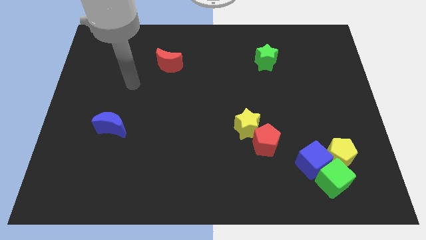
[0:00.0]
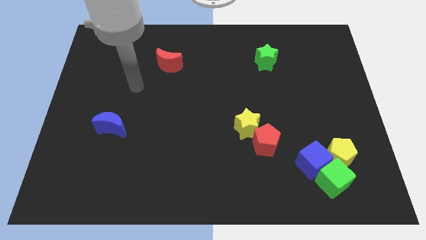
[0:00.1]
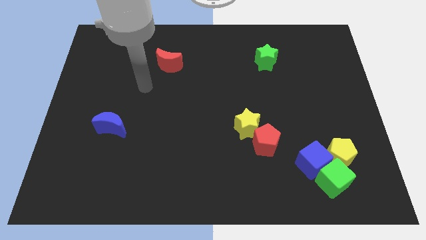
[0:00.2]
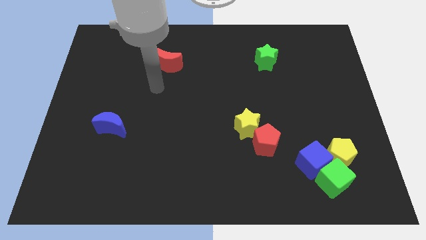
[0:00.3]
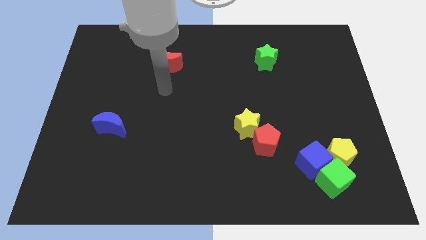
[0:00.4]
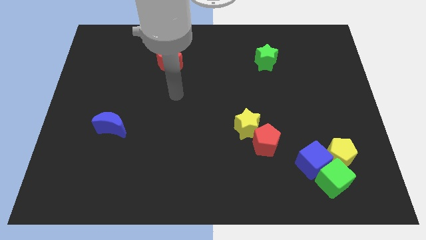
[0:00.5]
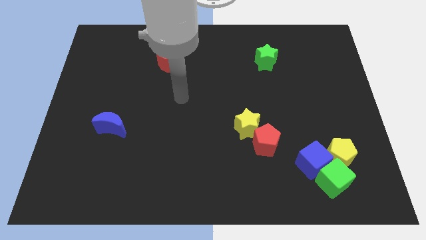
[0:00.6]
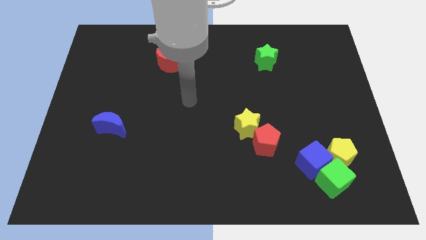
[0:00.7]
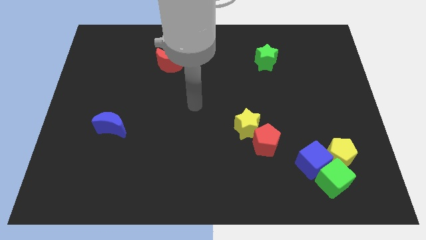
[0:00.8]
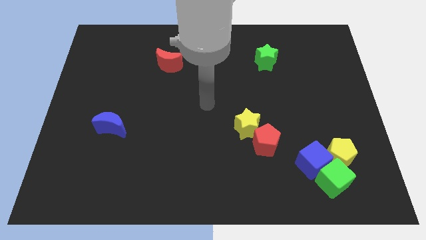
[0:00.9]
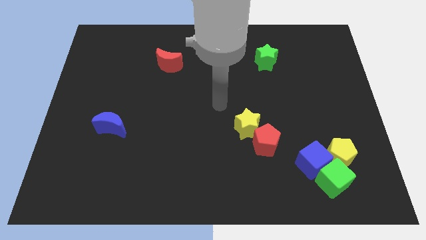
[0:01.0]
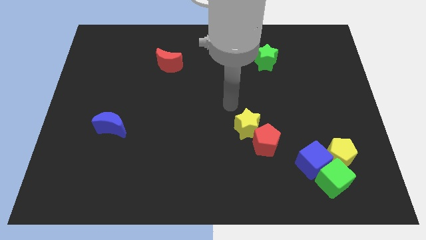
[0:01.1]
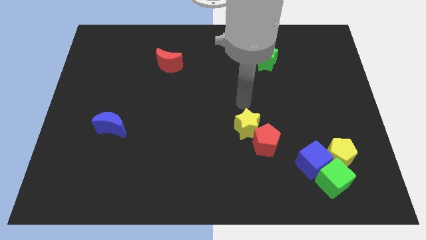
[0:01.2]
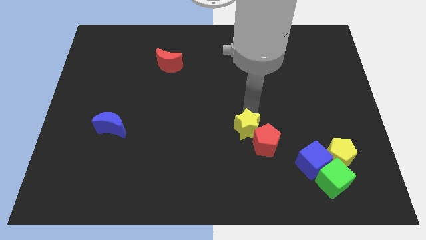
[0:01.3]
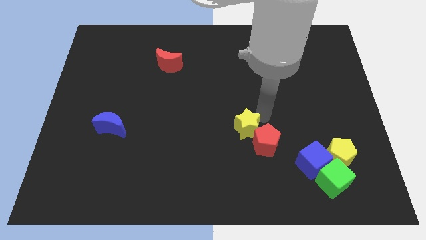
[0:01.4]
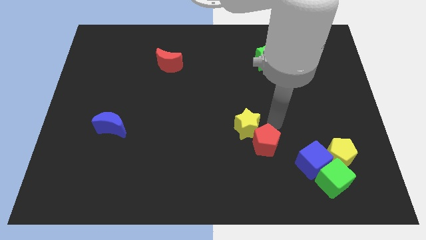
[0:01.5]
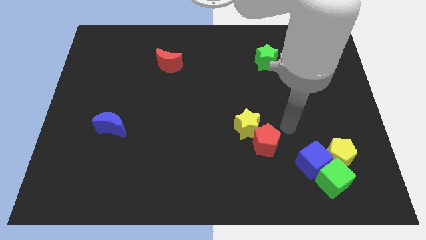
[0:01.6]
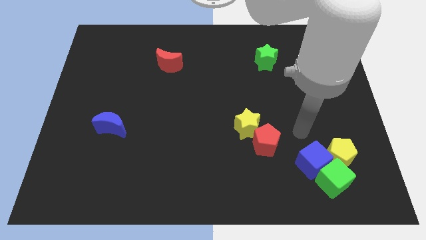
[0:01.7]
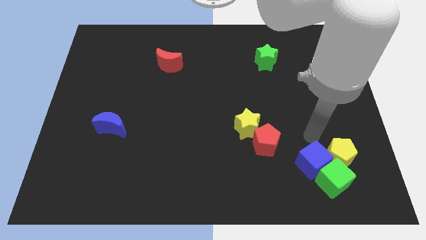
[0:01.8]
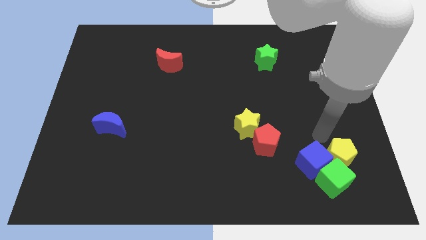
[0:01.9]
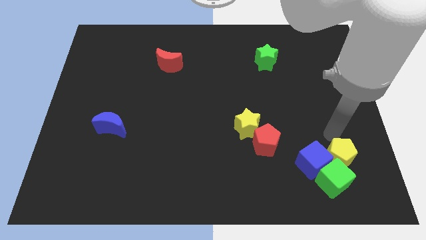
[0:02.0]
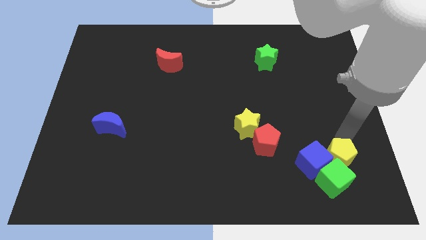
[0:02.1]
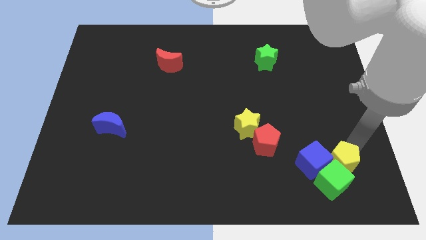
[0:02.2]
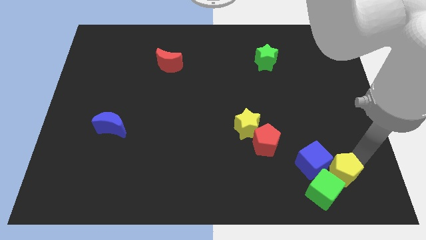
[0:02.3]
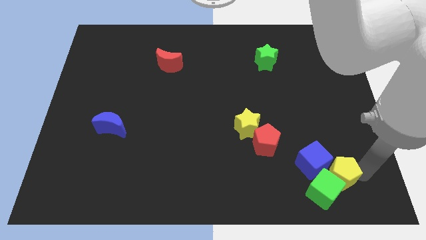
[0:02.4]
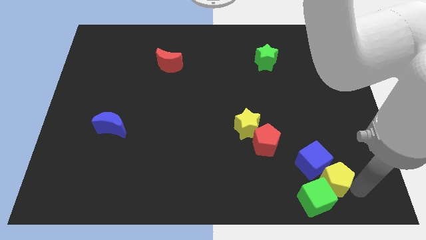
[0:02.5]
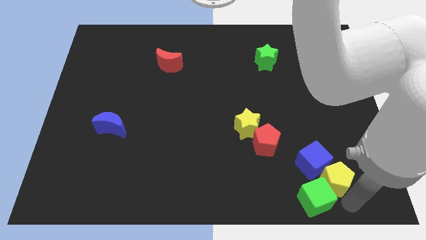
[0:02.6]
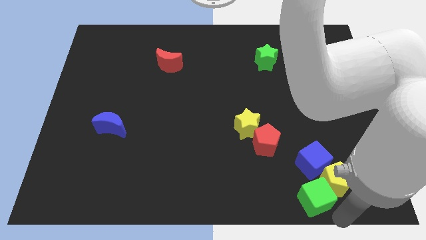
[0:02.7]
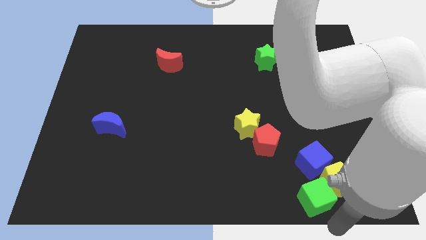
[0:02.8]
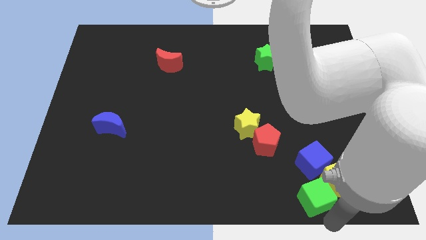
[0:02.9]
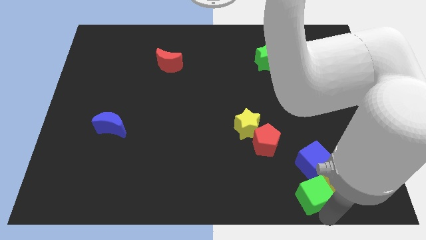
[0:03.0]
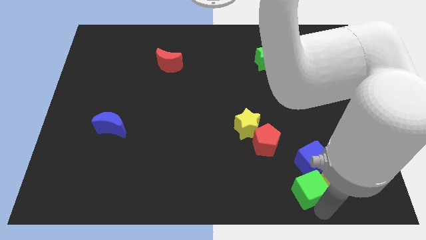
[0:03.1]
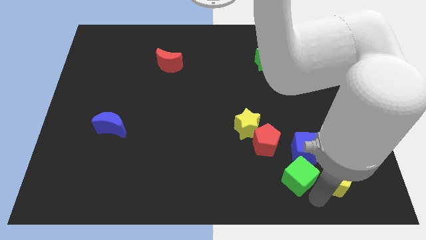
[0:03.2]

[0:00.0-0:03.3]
move the green cube somewhat to the left

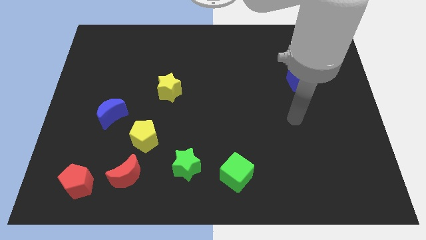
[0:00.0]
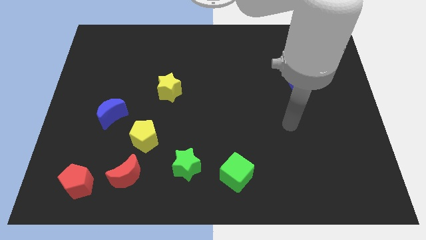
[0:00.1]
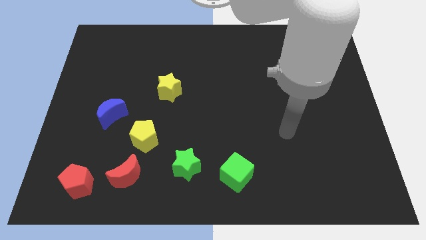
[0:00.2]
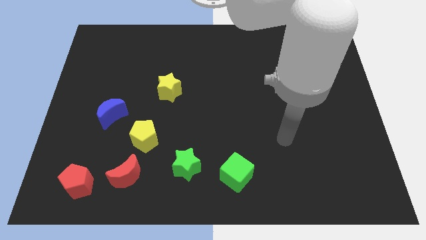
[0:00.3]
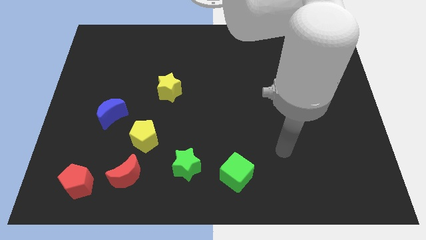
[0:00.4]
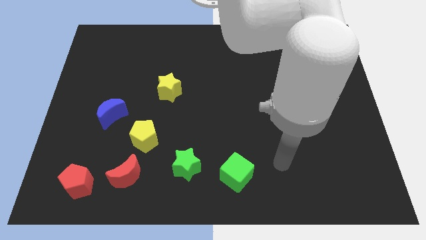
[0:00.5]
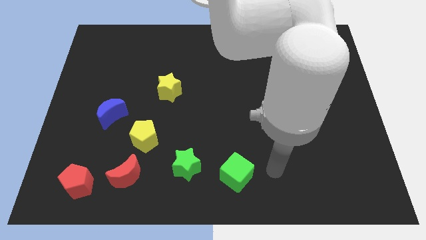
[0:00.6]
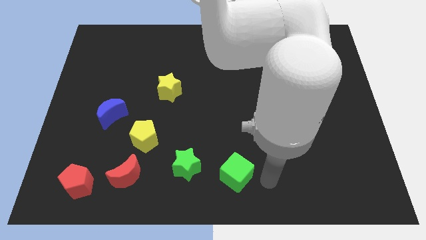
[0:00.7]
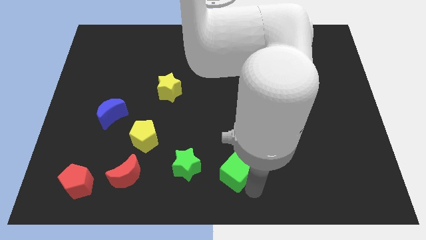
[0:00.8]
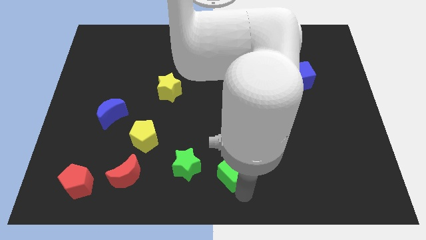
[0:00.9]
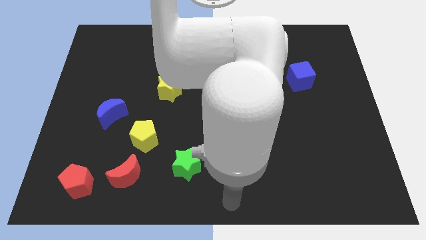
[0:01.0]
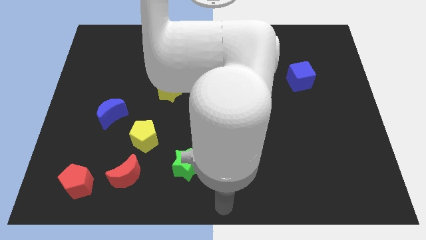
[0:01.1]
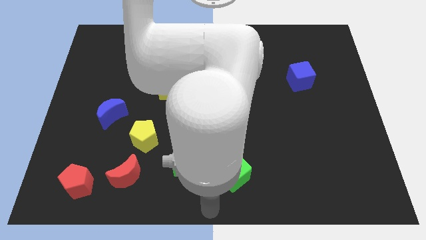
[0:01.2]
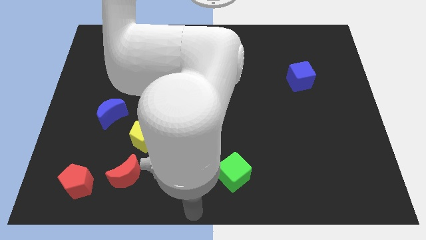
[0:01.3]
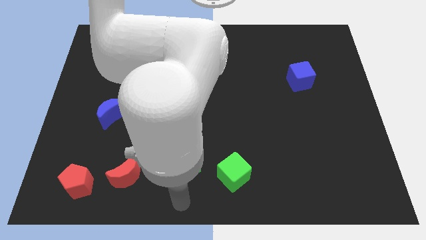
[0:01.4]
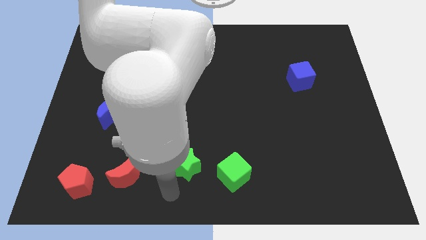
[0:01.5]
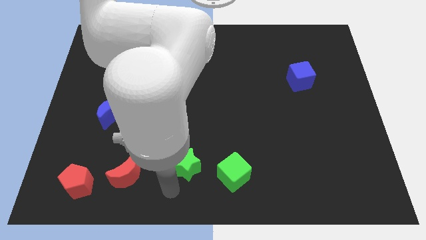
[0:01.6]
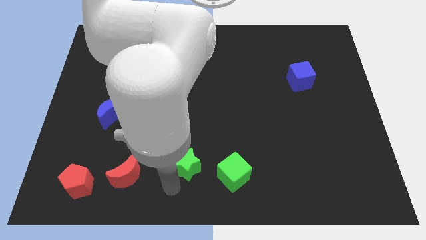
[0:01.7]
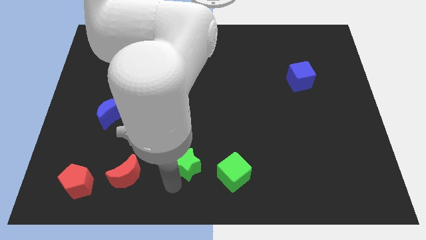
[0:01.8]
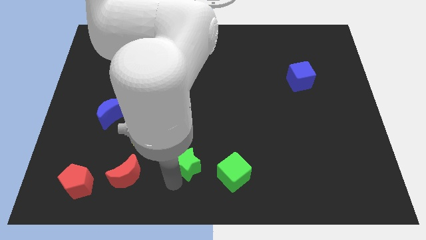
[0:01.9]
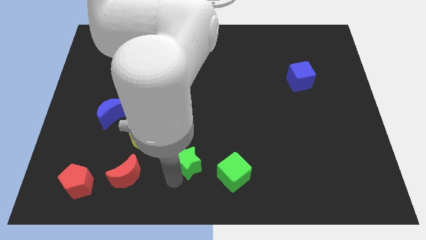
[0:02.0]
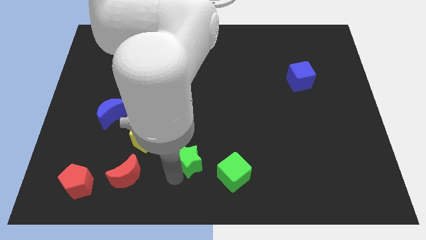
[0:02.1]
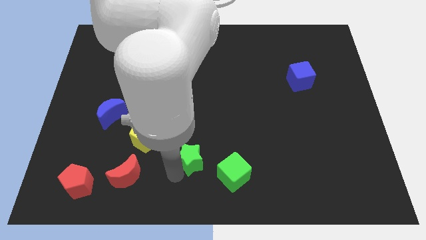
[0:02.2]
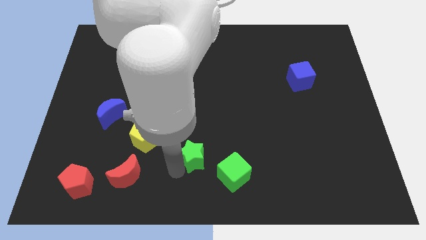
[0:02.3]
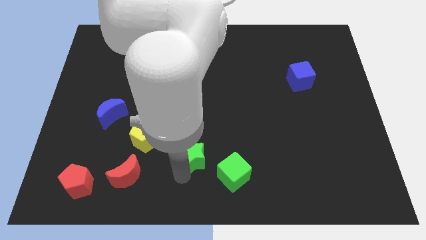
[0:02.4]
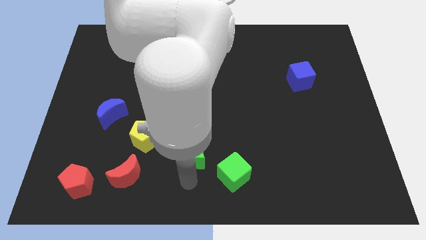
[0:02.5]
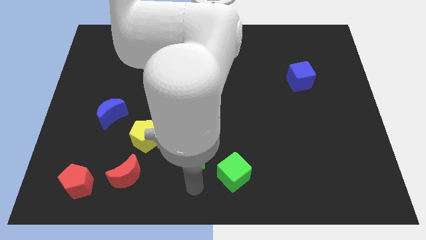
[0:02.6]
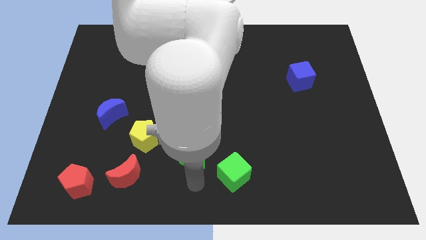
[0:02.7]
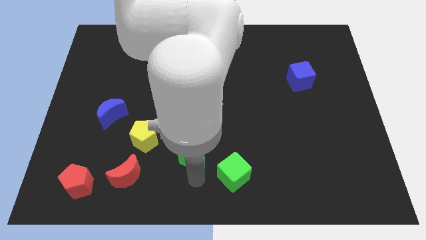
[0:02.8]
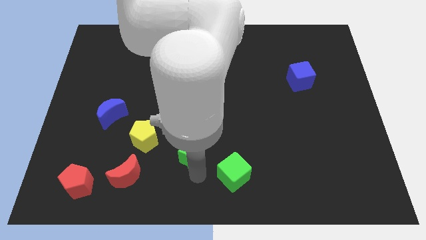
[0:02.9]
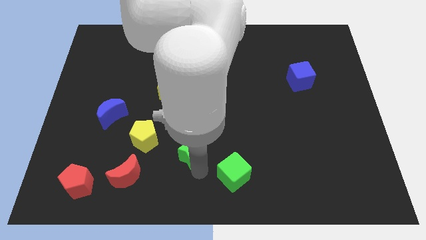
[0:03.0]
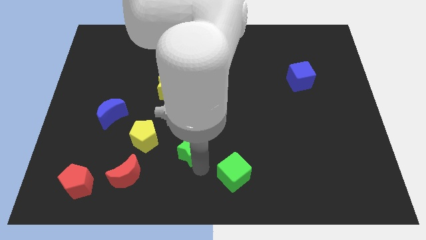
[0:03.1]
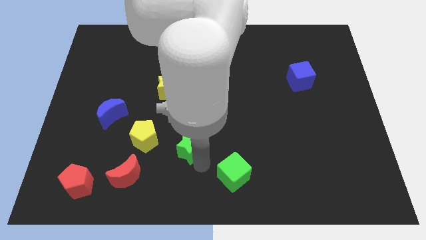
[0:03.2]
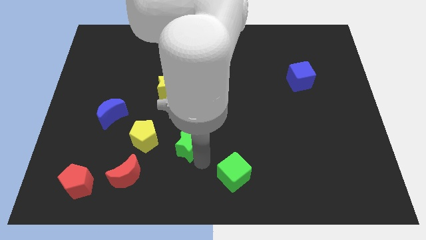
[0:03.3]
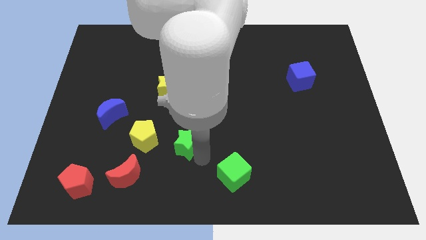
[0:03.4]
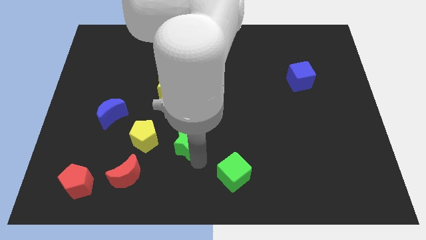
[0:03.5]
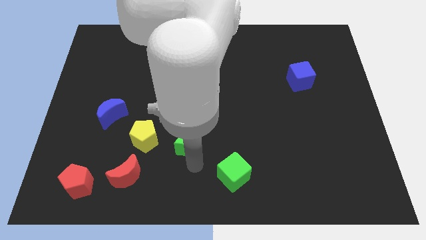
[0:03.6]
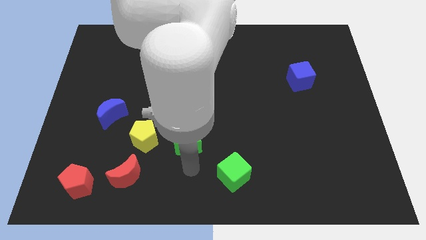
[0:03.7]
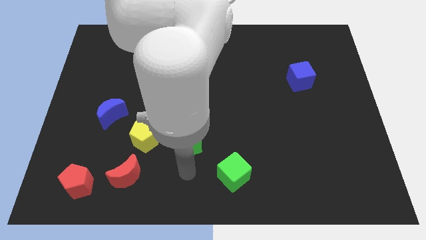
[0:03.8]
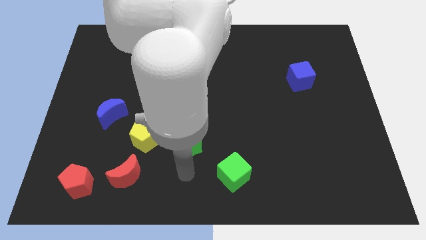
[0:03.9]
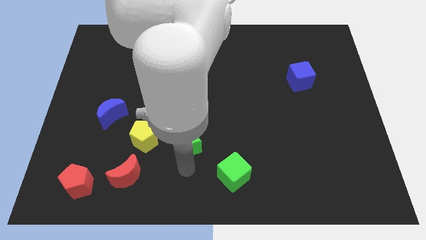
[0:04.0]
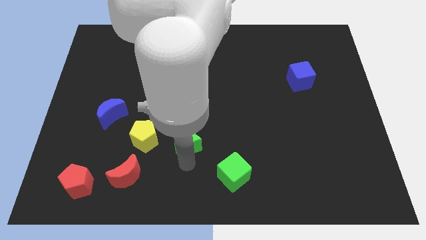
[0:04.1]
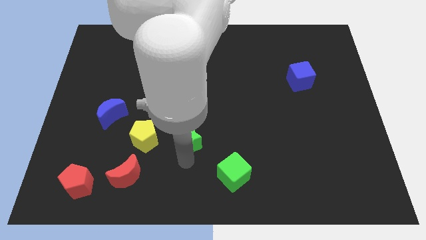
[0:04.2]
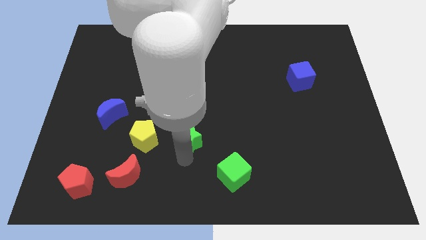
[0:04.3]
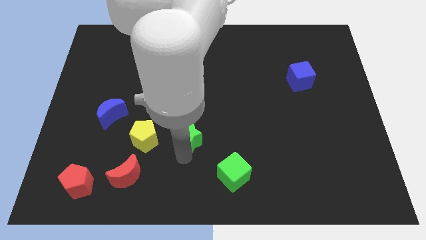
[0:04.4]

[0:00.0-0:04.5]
slightly slide the green star up

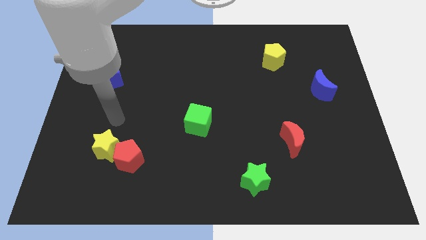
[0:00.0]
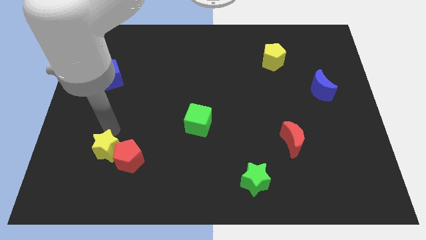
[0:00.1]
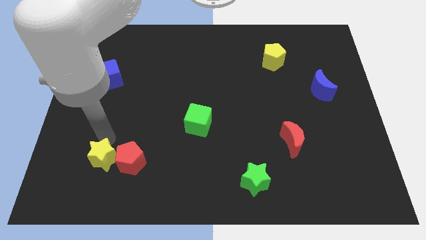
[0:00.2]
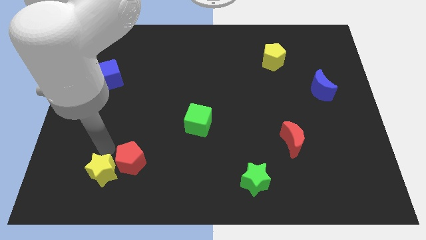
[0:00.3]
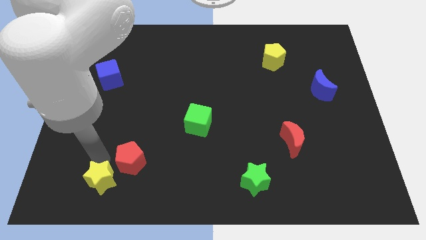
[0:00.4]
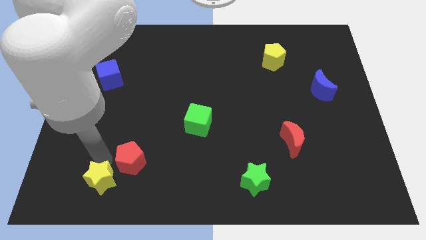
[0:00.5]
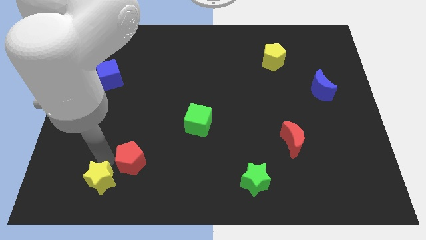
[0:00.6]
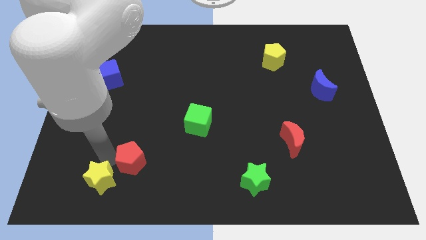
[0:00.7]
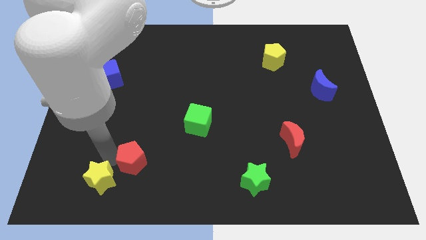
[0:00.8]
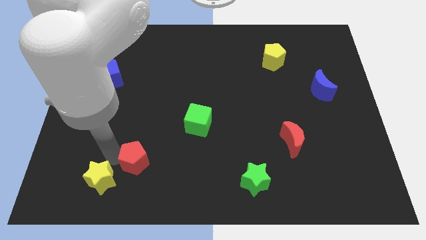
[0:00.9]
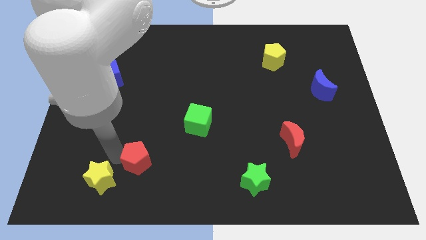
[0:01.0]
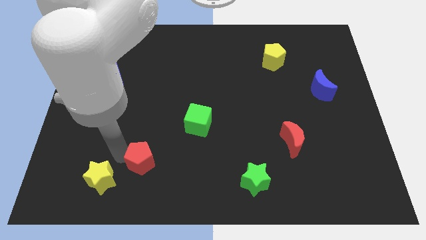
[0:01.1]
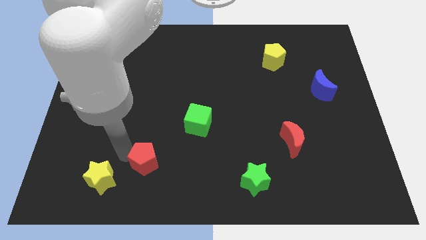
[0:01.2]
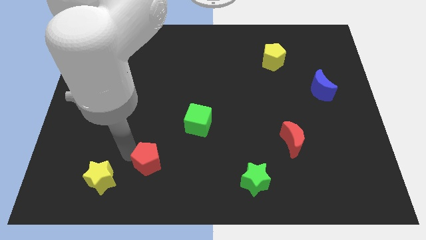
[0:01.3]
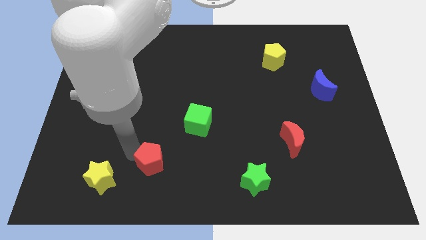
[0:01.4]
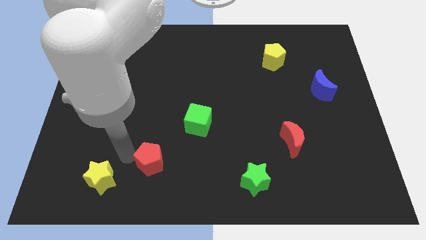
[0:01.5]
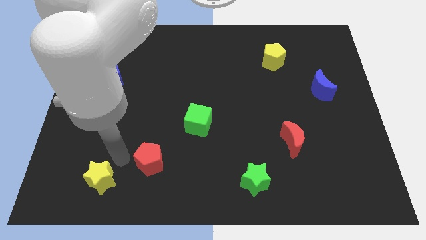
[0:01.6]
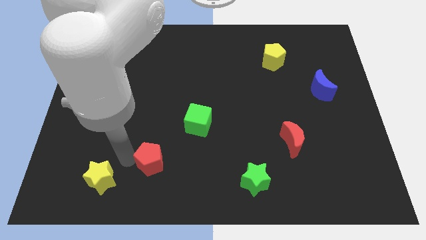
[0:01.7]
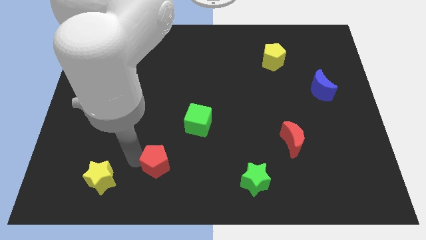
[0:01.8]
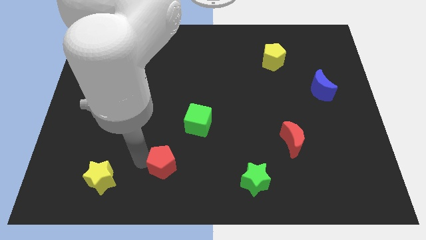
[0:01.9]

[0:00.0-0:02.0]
slightly slide the red pentagon to the right
